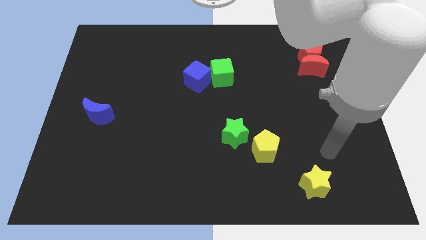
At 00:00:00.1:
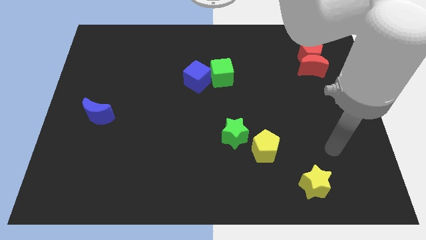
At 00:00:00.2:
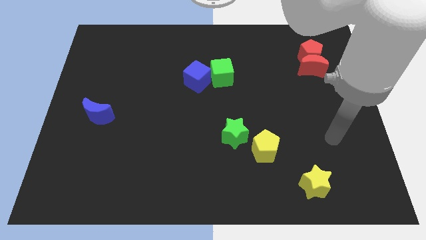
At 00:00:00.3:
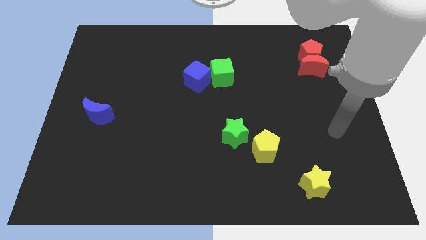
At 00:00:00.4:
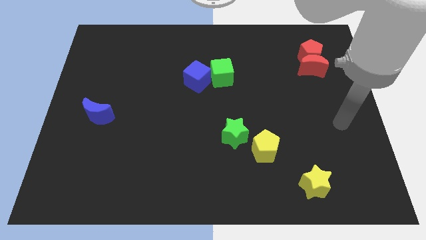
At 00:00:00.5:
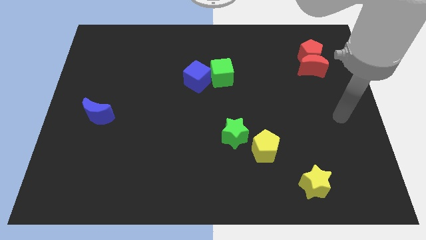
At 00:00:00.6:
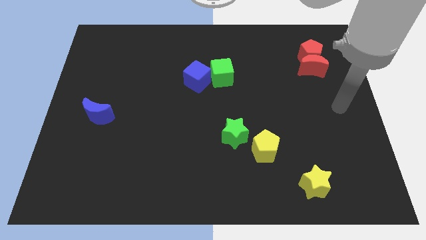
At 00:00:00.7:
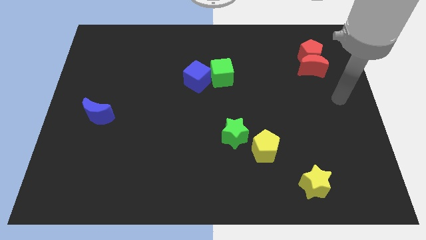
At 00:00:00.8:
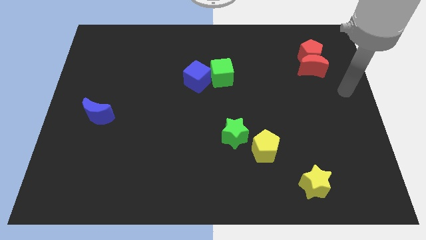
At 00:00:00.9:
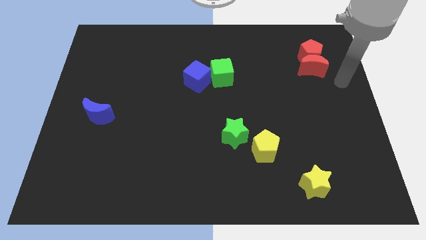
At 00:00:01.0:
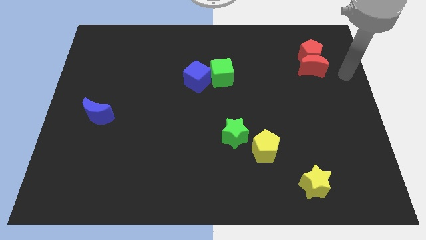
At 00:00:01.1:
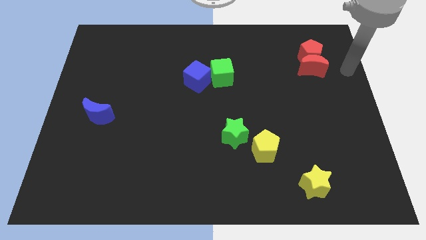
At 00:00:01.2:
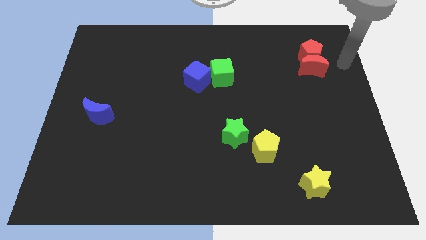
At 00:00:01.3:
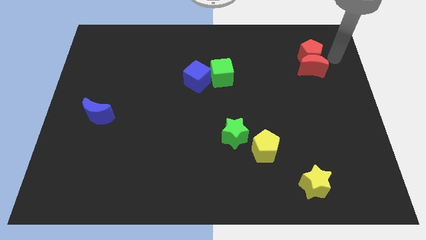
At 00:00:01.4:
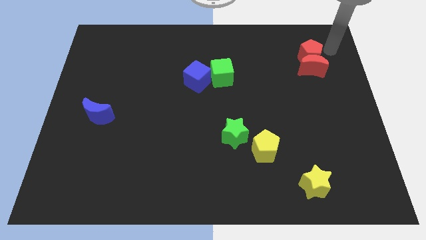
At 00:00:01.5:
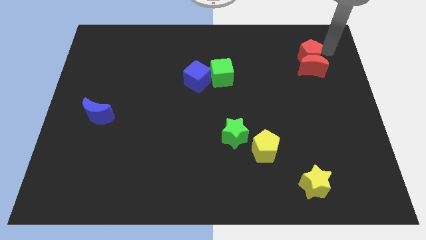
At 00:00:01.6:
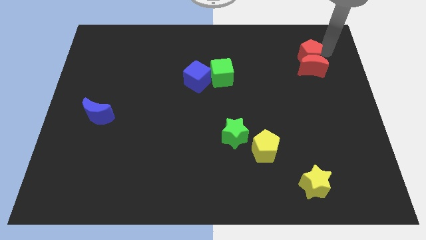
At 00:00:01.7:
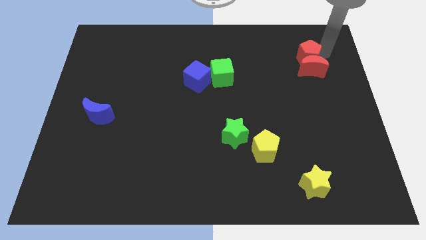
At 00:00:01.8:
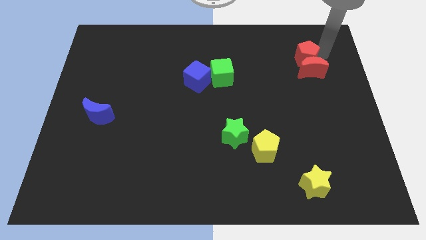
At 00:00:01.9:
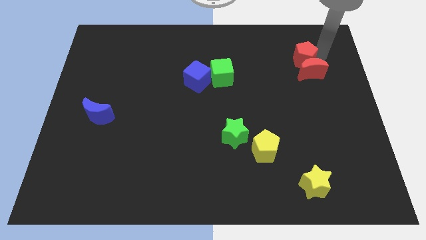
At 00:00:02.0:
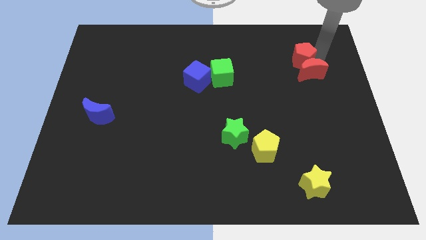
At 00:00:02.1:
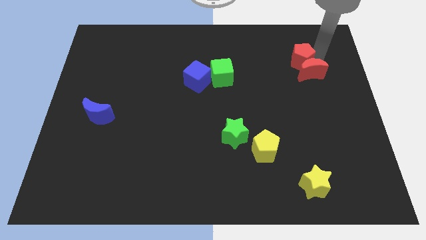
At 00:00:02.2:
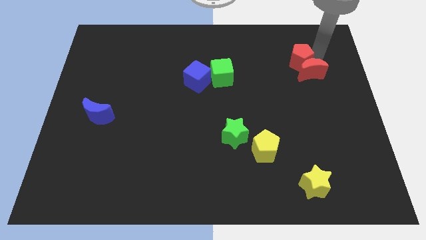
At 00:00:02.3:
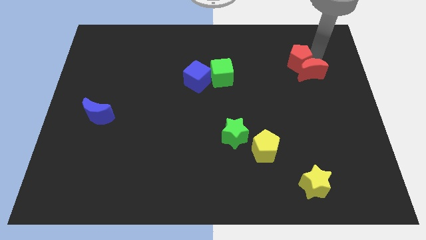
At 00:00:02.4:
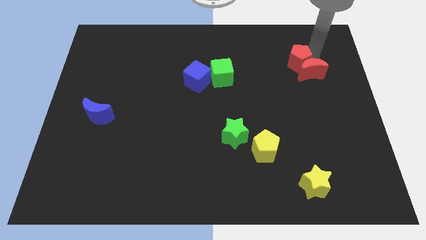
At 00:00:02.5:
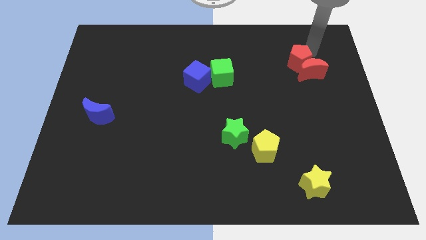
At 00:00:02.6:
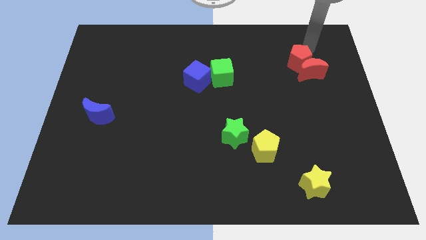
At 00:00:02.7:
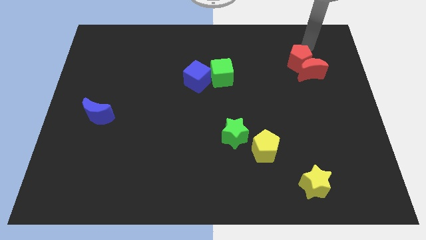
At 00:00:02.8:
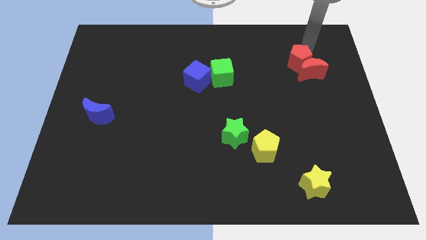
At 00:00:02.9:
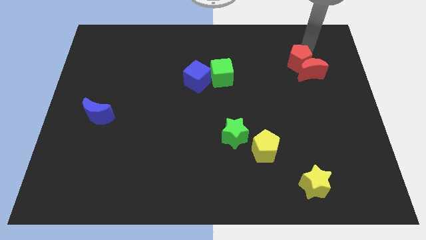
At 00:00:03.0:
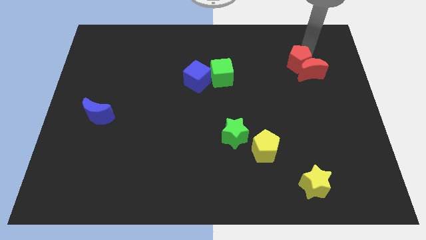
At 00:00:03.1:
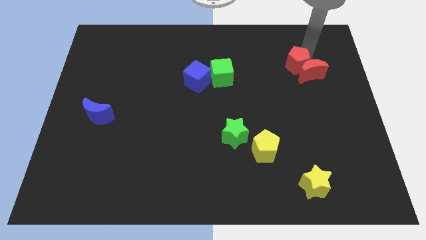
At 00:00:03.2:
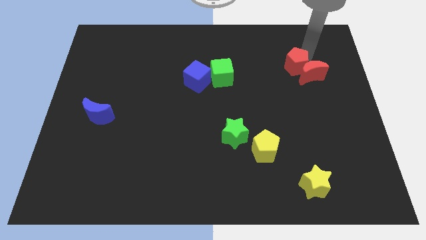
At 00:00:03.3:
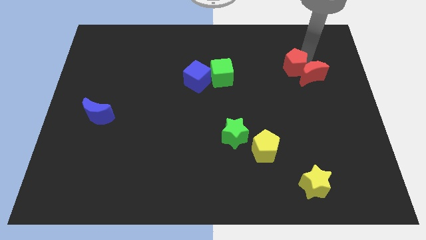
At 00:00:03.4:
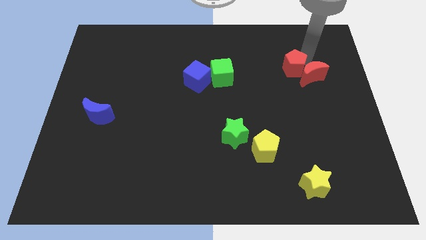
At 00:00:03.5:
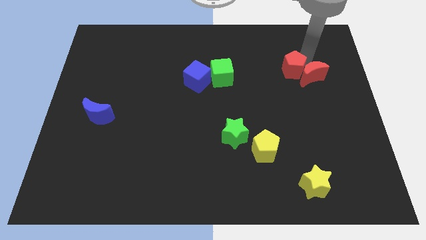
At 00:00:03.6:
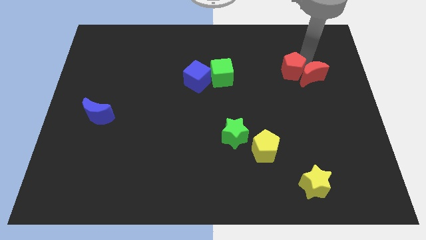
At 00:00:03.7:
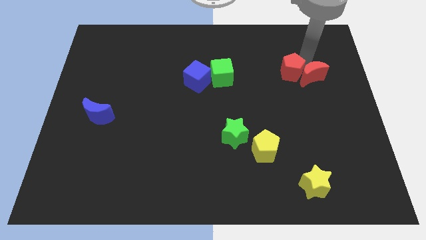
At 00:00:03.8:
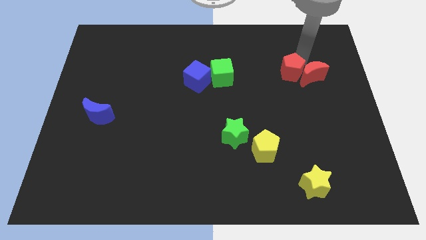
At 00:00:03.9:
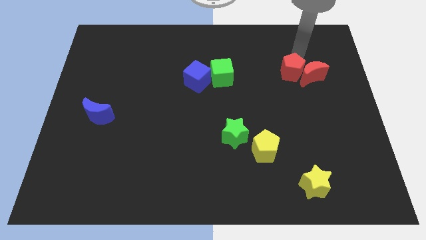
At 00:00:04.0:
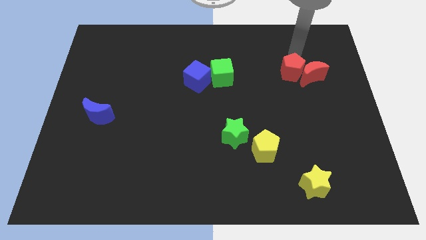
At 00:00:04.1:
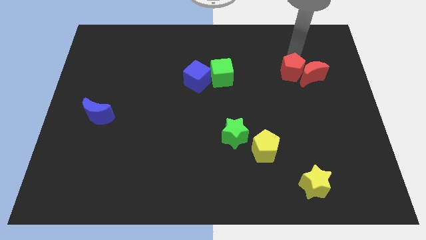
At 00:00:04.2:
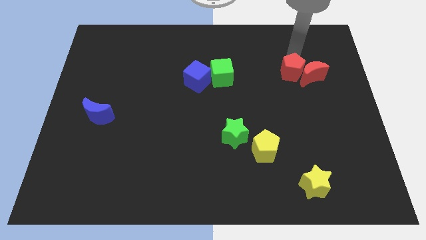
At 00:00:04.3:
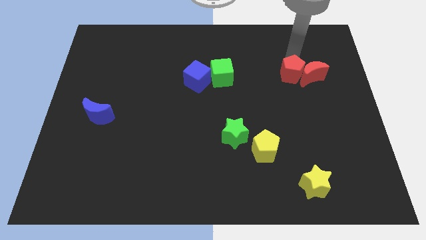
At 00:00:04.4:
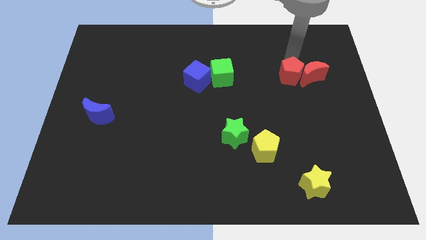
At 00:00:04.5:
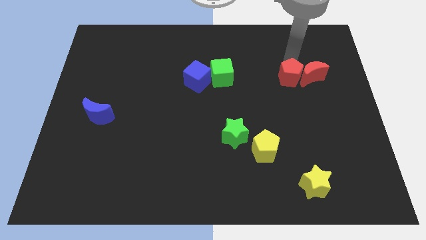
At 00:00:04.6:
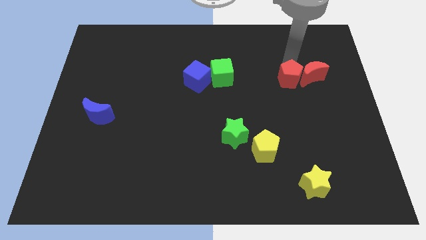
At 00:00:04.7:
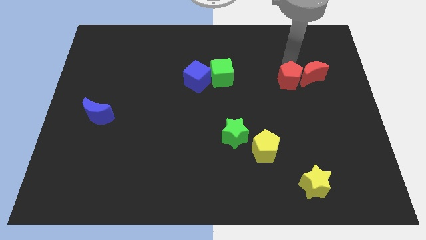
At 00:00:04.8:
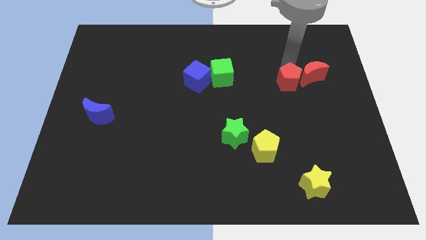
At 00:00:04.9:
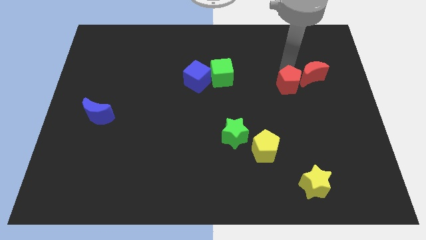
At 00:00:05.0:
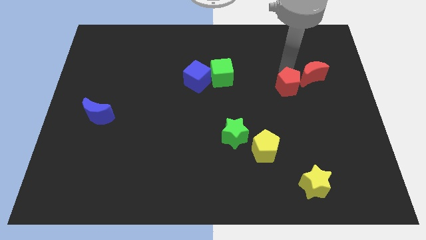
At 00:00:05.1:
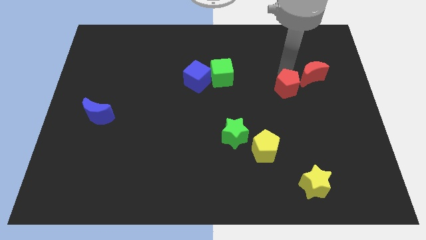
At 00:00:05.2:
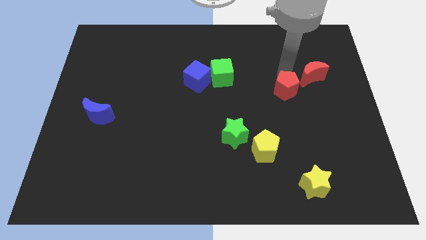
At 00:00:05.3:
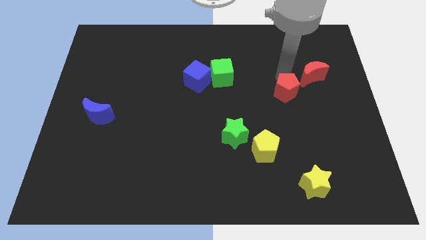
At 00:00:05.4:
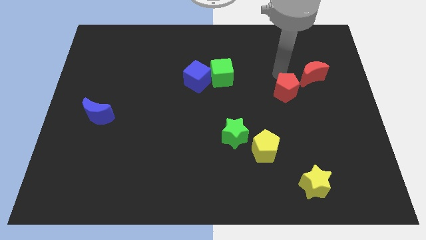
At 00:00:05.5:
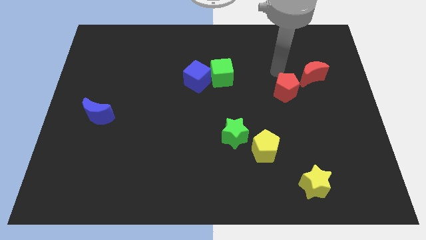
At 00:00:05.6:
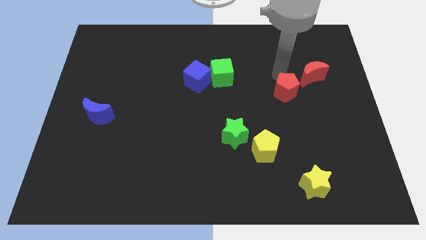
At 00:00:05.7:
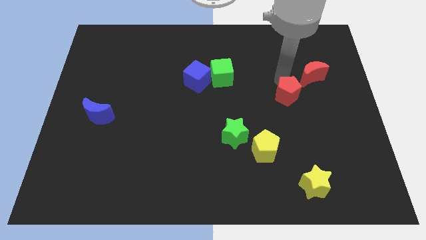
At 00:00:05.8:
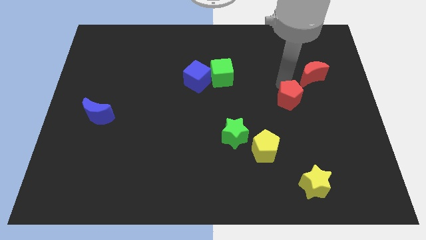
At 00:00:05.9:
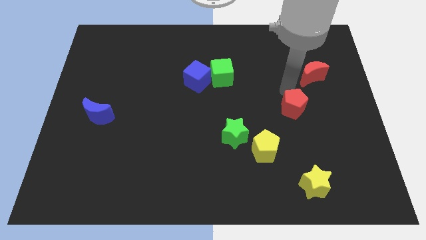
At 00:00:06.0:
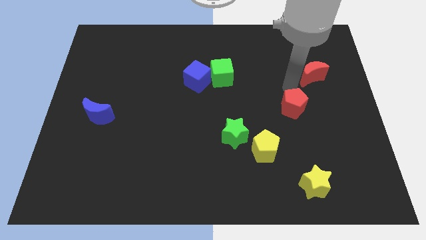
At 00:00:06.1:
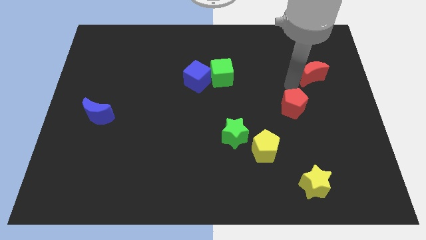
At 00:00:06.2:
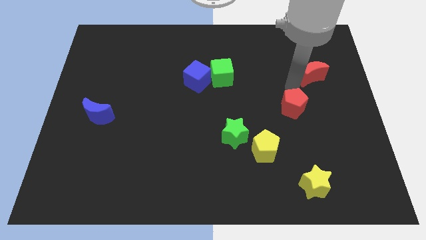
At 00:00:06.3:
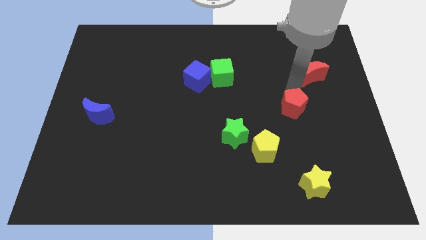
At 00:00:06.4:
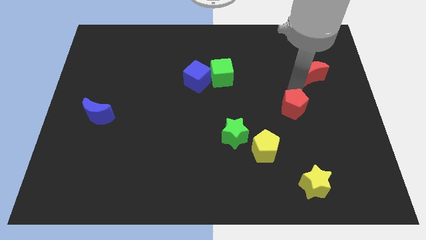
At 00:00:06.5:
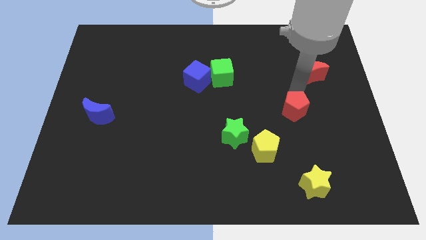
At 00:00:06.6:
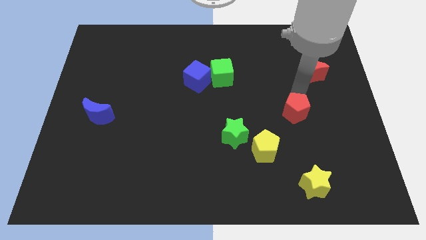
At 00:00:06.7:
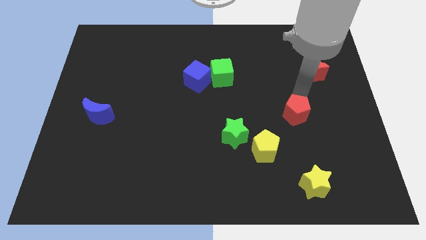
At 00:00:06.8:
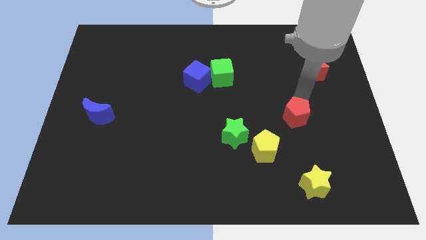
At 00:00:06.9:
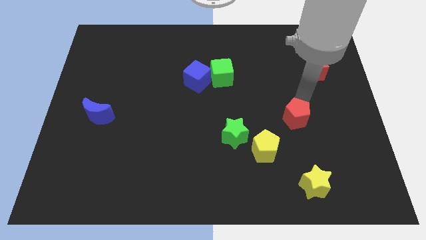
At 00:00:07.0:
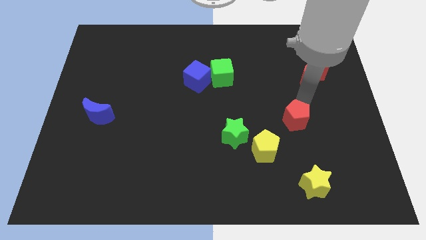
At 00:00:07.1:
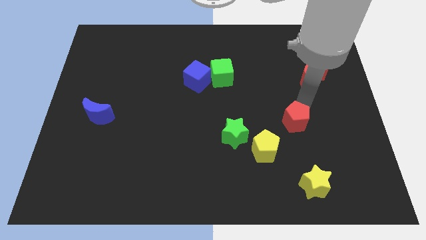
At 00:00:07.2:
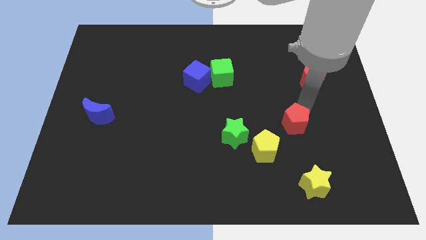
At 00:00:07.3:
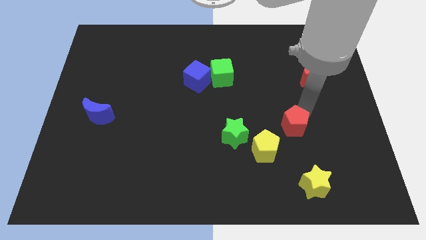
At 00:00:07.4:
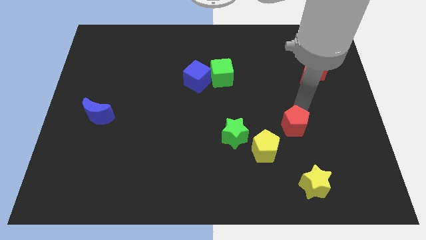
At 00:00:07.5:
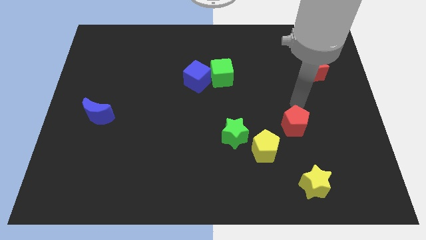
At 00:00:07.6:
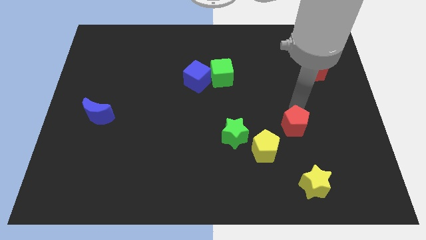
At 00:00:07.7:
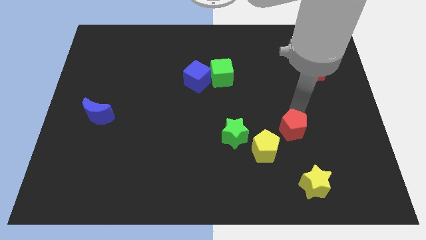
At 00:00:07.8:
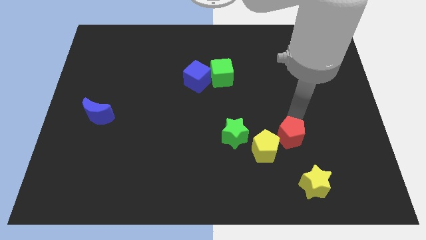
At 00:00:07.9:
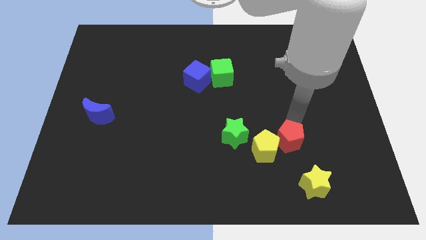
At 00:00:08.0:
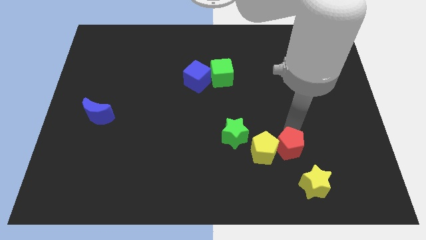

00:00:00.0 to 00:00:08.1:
push the red pentagon to the top left of the yellow star
